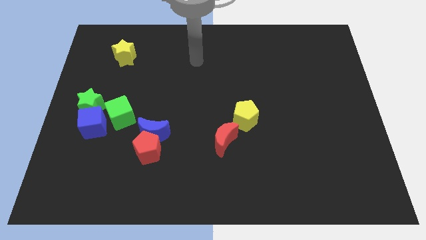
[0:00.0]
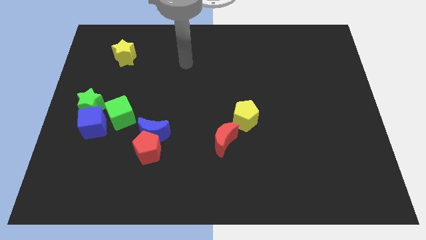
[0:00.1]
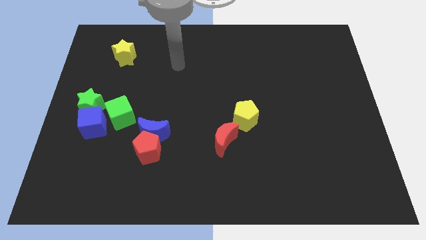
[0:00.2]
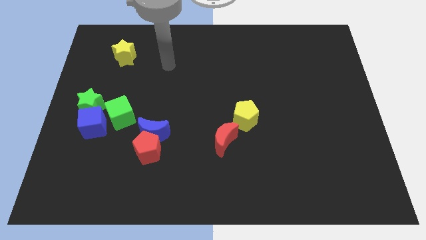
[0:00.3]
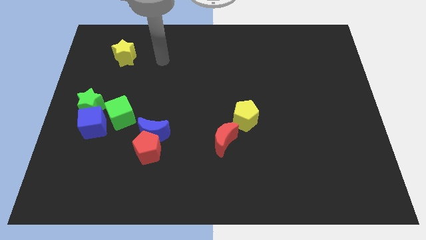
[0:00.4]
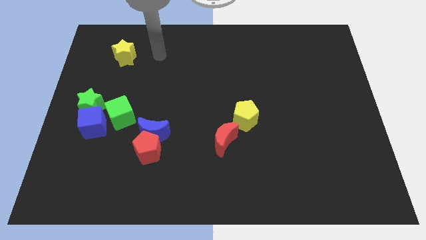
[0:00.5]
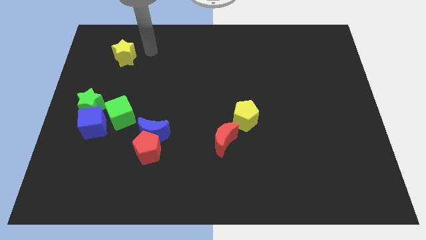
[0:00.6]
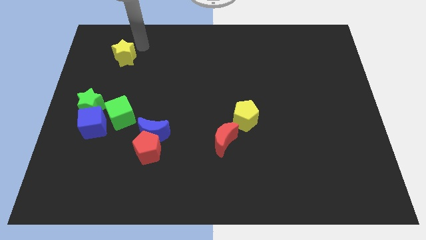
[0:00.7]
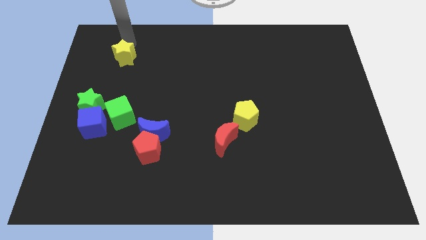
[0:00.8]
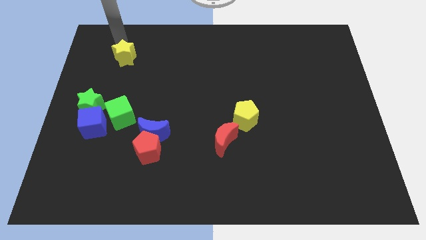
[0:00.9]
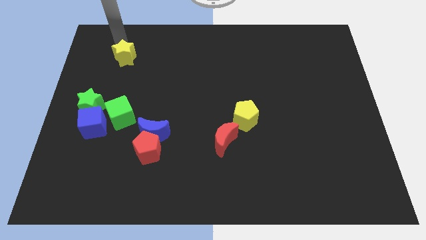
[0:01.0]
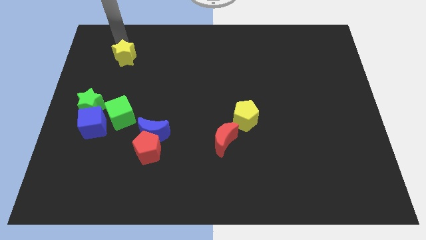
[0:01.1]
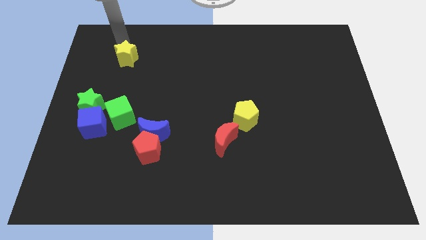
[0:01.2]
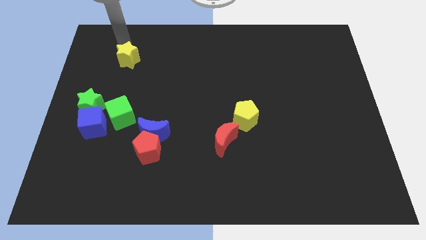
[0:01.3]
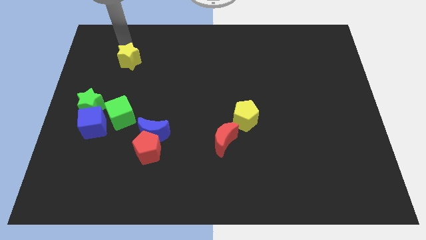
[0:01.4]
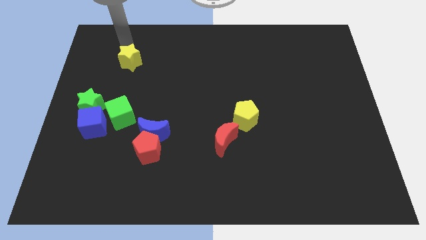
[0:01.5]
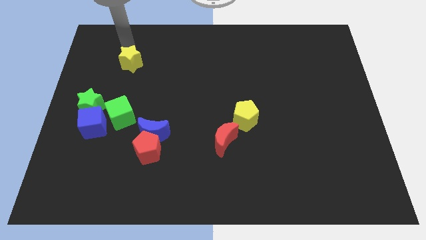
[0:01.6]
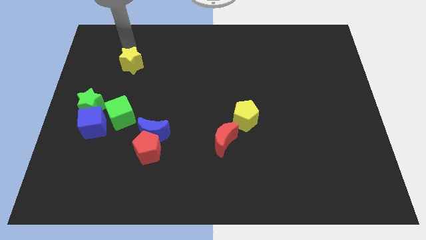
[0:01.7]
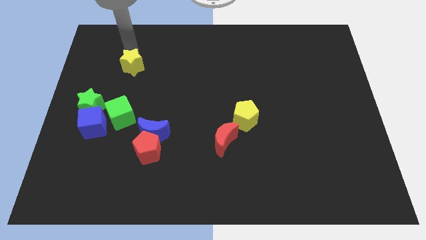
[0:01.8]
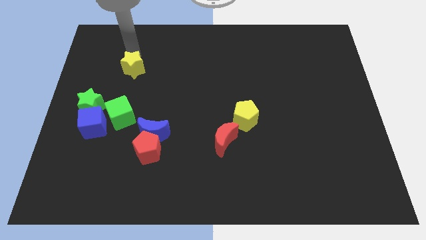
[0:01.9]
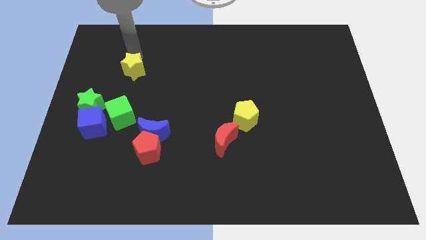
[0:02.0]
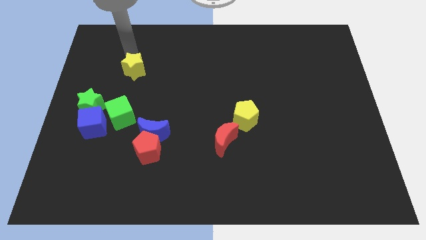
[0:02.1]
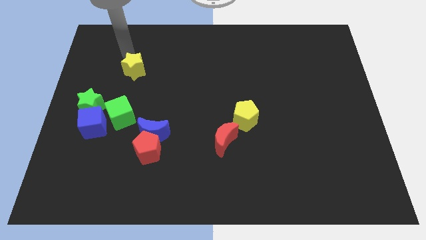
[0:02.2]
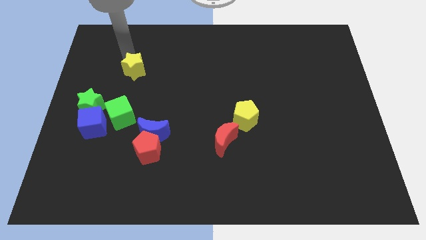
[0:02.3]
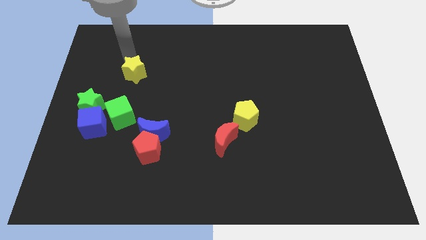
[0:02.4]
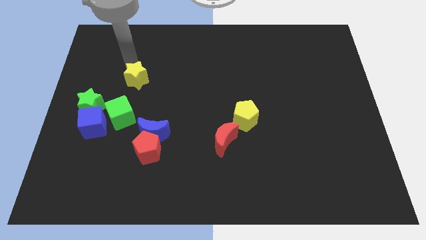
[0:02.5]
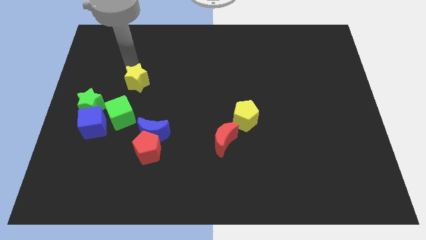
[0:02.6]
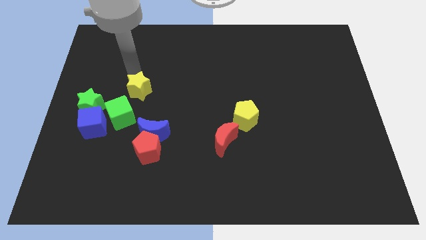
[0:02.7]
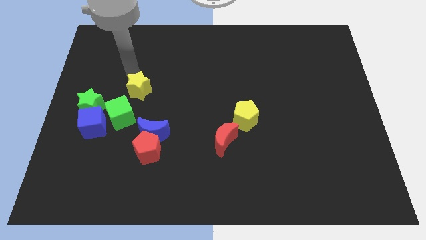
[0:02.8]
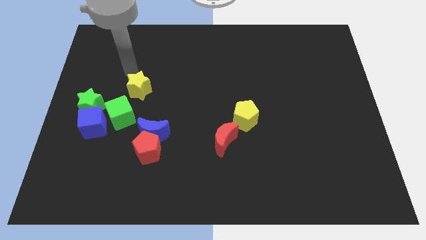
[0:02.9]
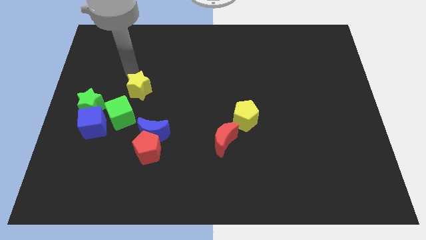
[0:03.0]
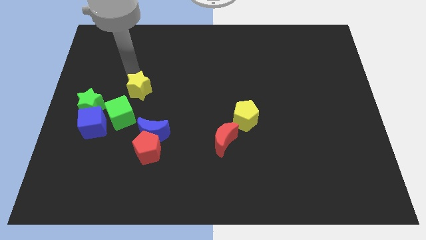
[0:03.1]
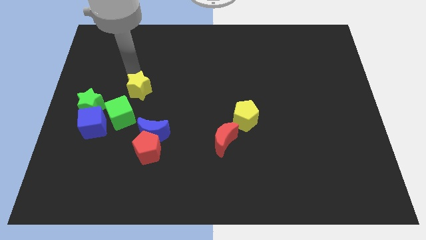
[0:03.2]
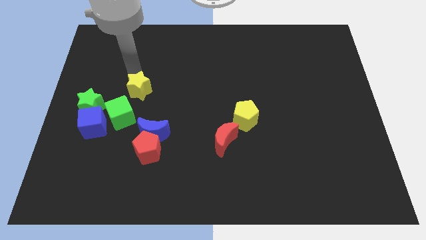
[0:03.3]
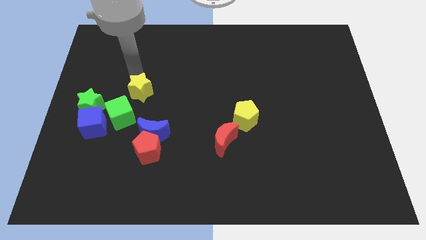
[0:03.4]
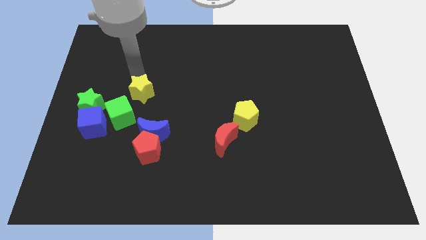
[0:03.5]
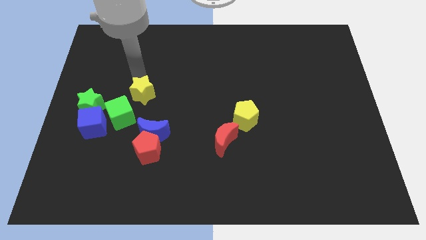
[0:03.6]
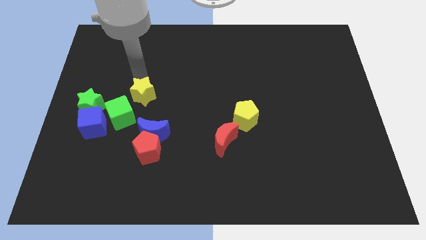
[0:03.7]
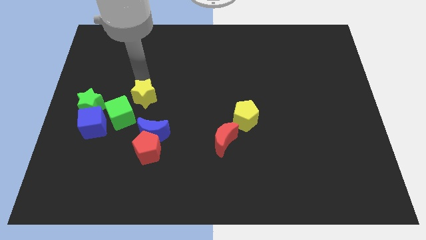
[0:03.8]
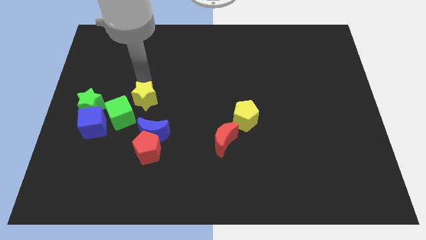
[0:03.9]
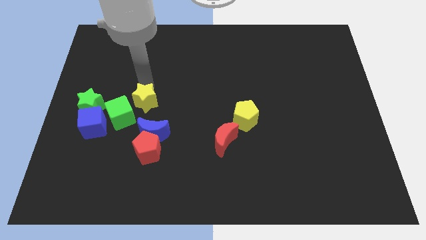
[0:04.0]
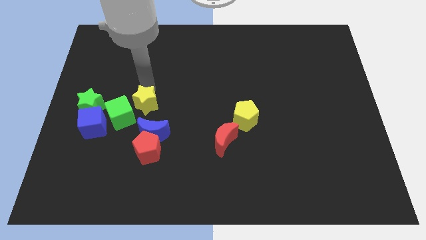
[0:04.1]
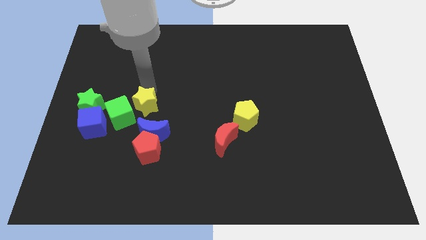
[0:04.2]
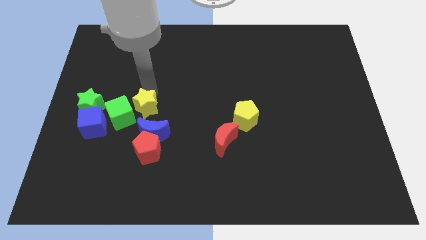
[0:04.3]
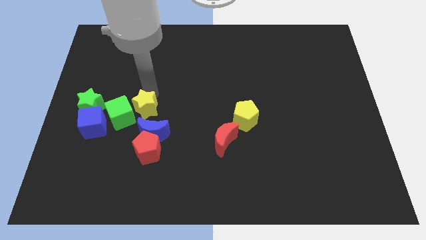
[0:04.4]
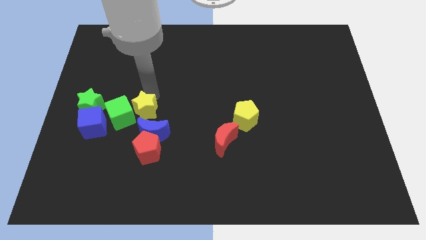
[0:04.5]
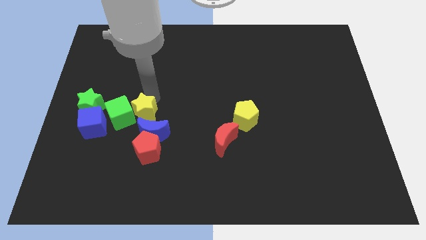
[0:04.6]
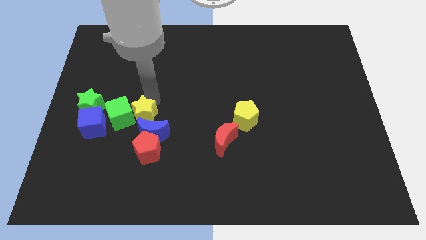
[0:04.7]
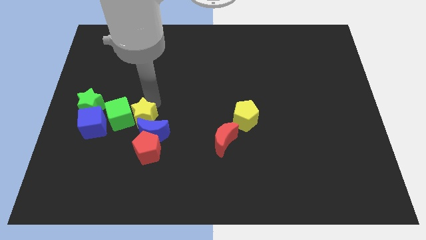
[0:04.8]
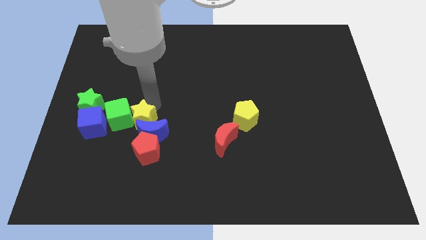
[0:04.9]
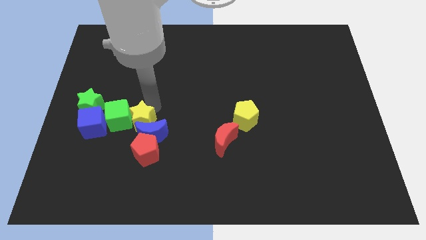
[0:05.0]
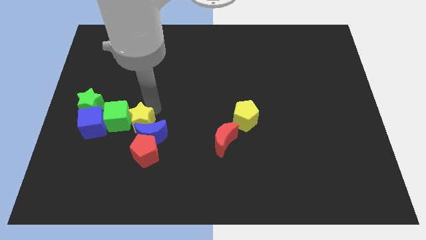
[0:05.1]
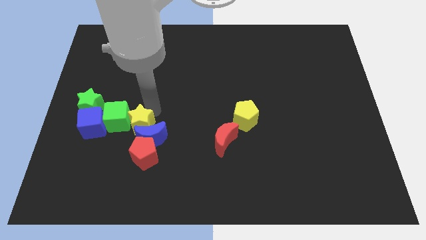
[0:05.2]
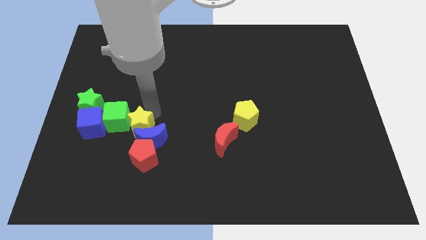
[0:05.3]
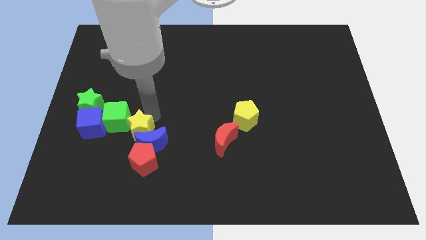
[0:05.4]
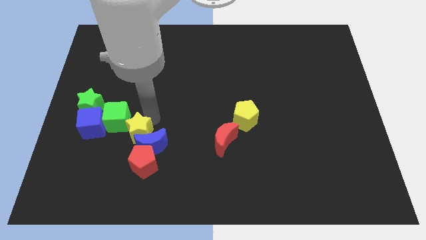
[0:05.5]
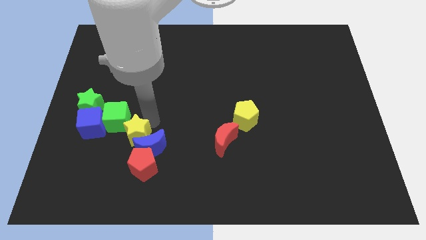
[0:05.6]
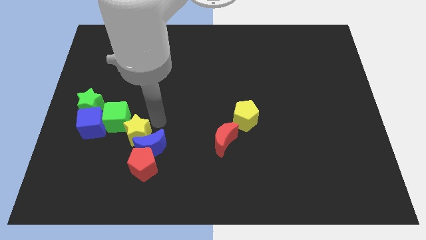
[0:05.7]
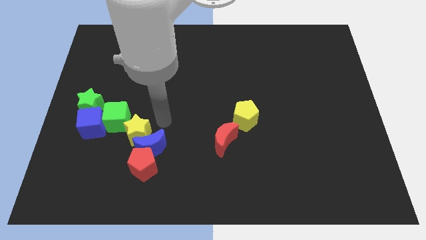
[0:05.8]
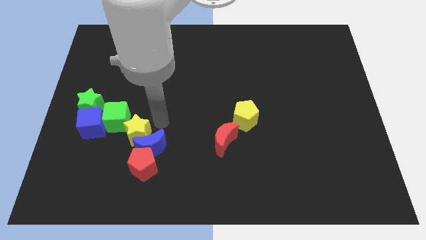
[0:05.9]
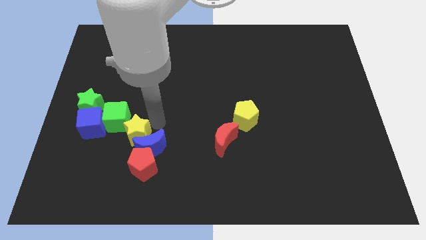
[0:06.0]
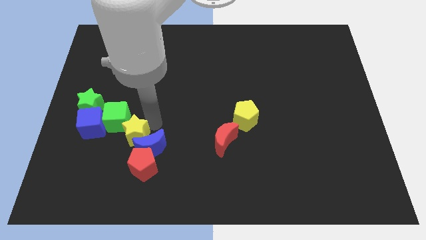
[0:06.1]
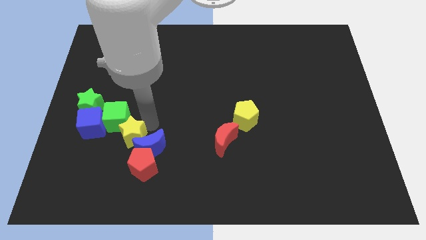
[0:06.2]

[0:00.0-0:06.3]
put the yellow star to the bottom right side of the blue cube

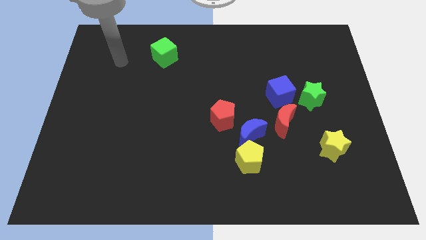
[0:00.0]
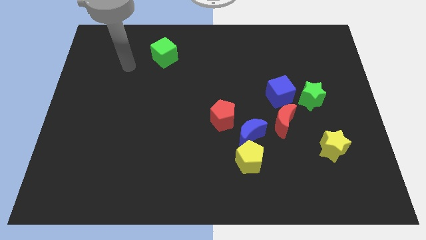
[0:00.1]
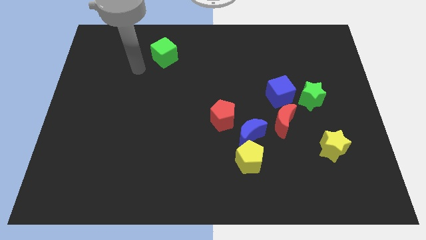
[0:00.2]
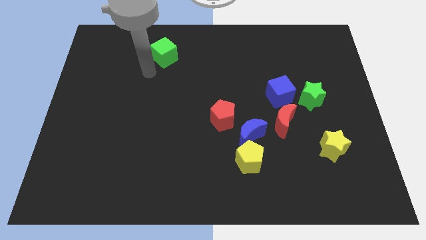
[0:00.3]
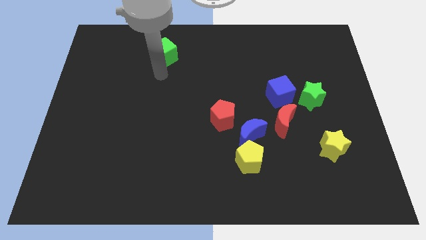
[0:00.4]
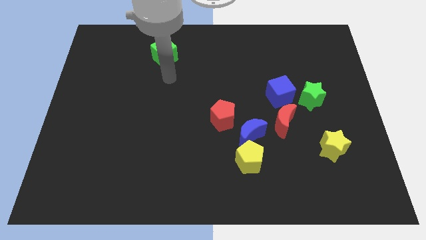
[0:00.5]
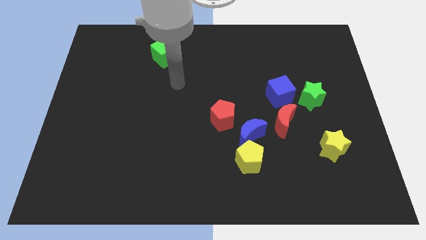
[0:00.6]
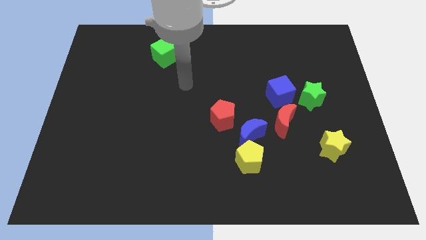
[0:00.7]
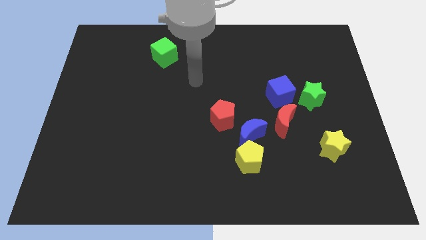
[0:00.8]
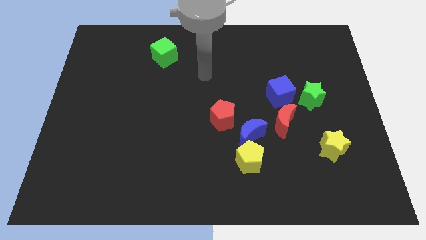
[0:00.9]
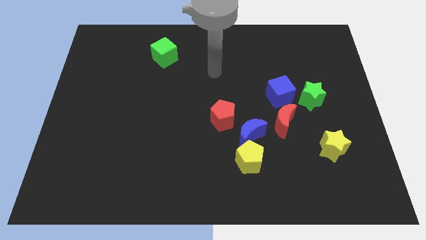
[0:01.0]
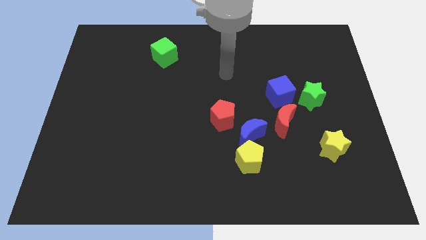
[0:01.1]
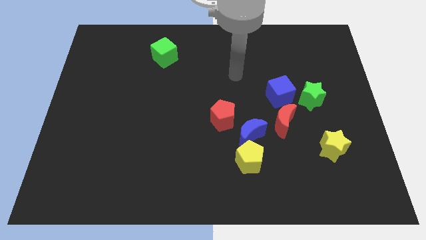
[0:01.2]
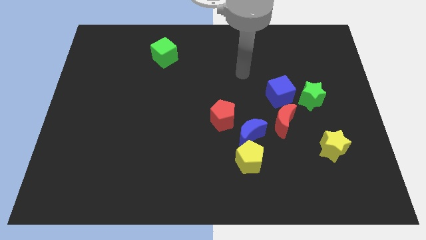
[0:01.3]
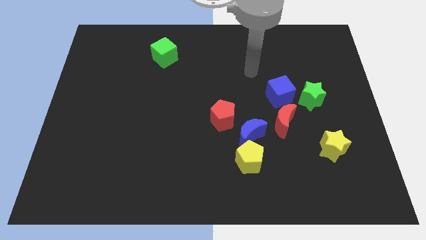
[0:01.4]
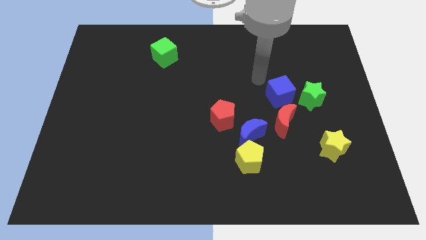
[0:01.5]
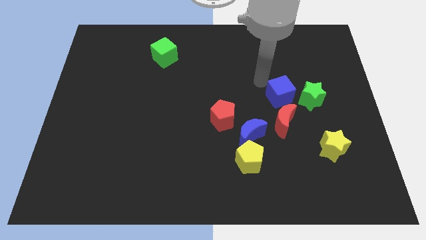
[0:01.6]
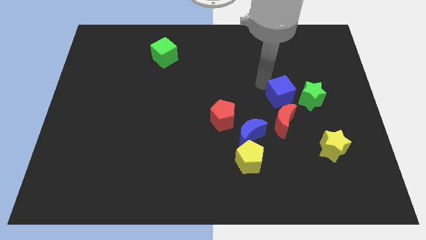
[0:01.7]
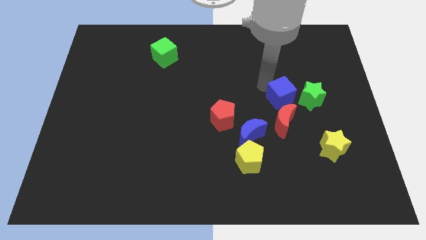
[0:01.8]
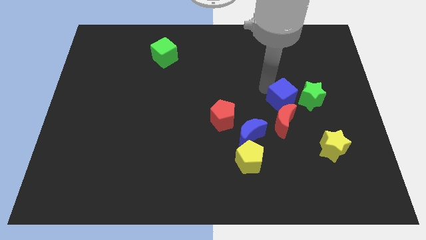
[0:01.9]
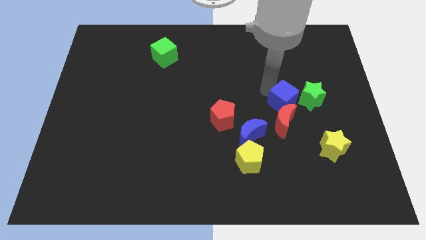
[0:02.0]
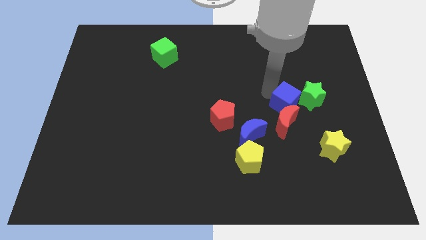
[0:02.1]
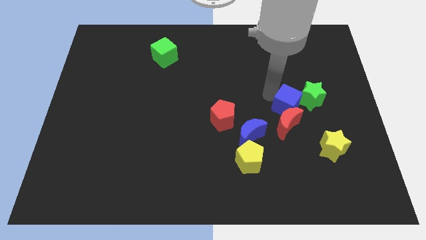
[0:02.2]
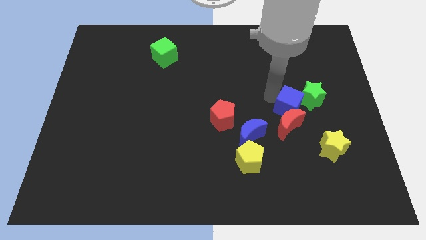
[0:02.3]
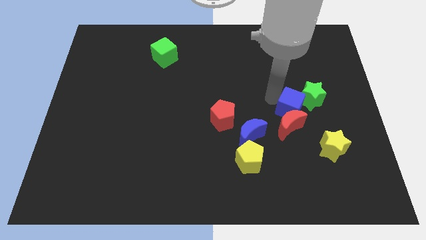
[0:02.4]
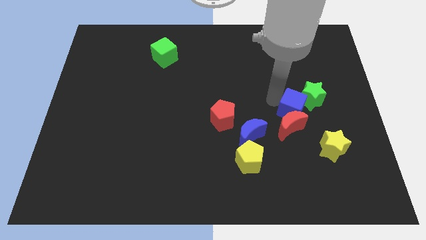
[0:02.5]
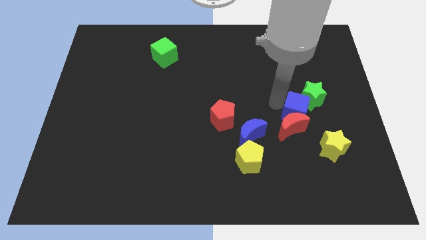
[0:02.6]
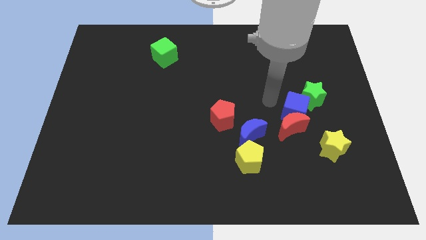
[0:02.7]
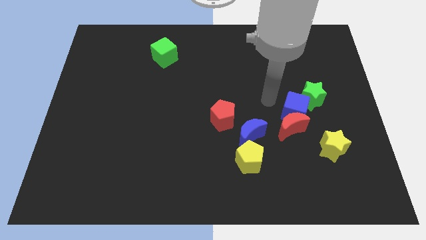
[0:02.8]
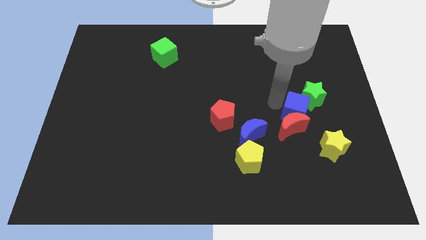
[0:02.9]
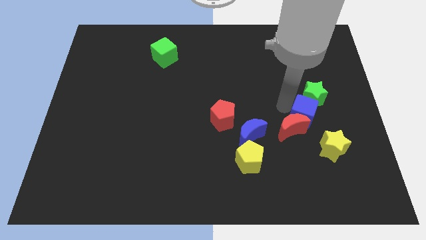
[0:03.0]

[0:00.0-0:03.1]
put the blue cube right of the red moon
